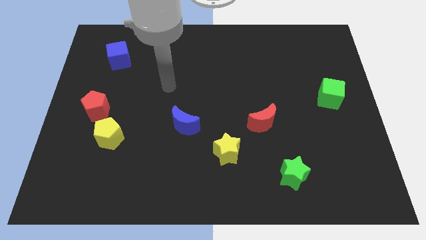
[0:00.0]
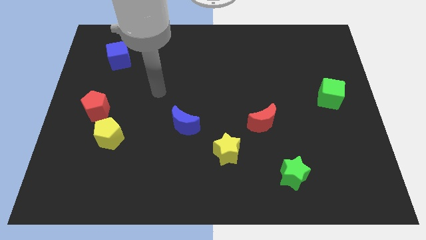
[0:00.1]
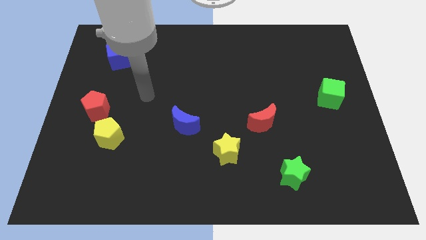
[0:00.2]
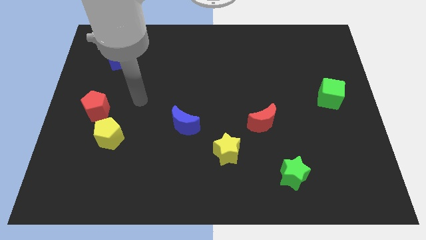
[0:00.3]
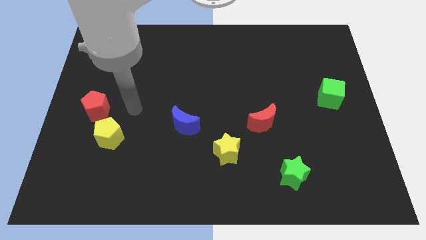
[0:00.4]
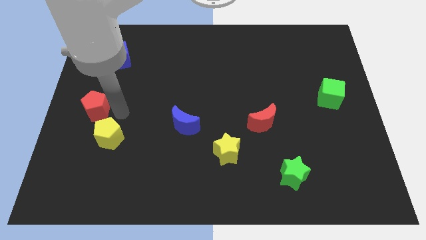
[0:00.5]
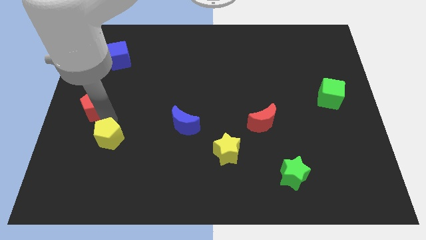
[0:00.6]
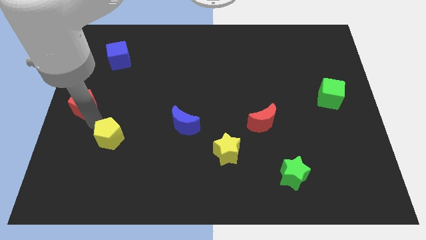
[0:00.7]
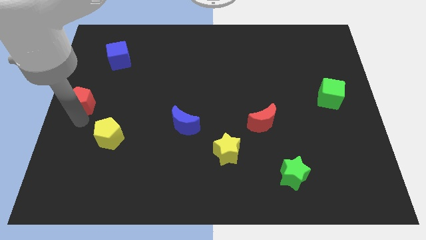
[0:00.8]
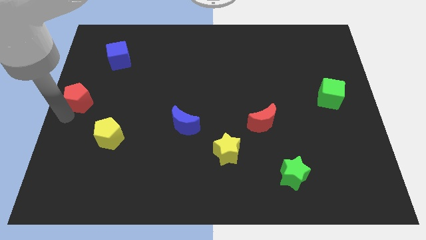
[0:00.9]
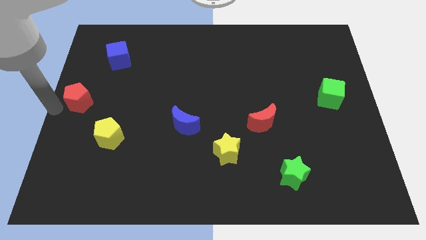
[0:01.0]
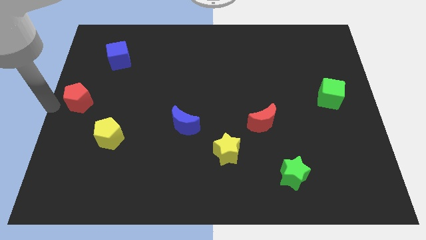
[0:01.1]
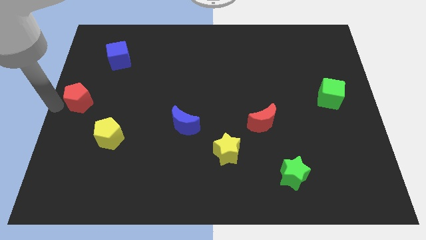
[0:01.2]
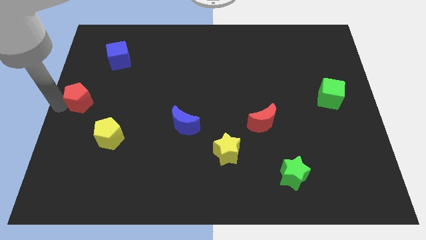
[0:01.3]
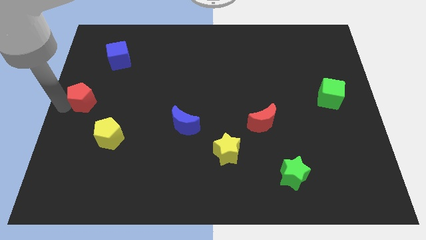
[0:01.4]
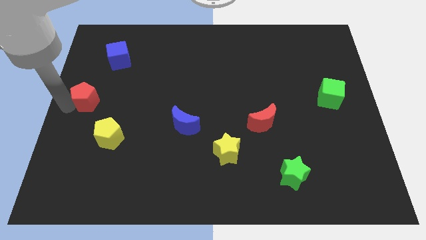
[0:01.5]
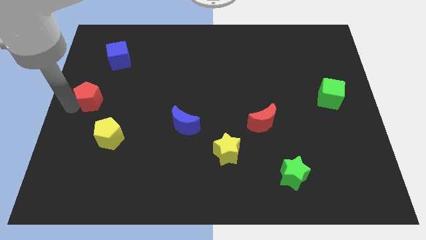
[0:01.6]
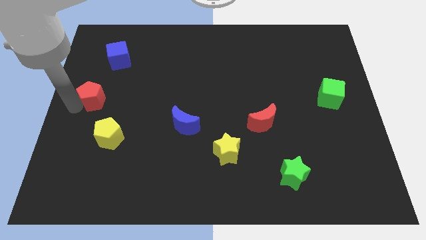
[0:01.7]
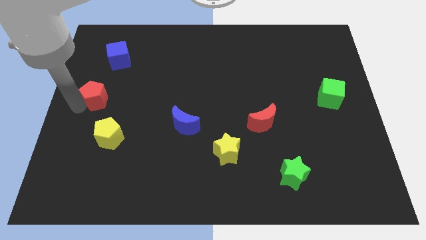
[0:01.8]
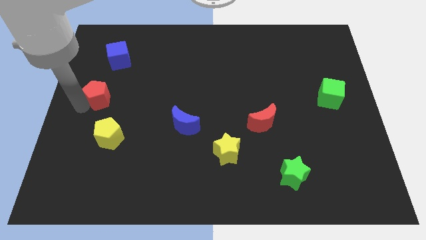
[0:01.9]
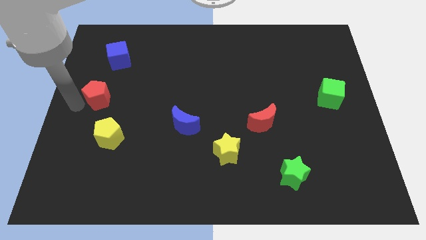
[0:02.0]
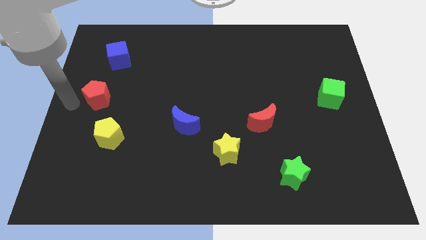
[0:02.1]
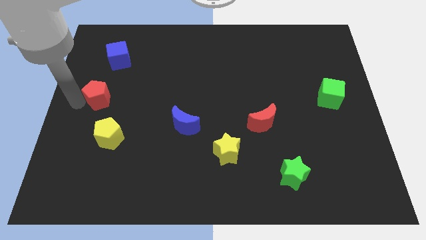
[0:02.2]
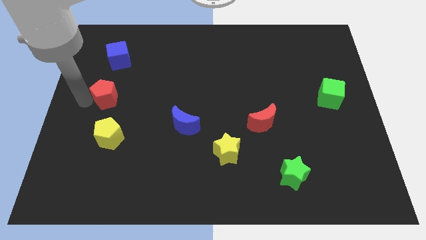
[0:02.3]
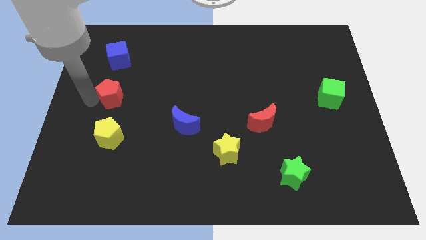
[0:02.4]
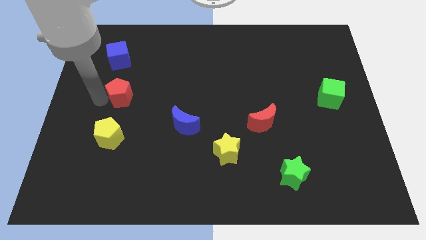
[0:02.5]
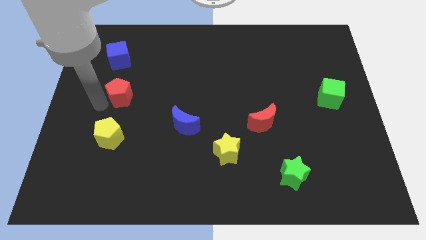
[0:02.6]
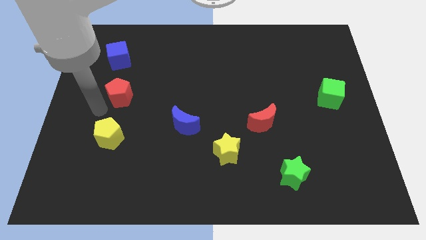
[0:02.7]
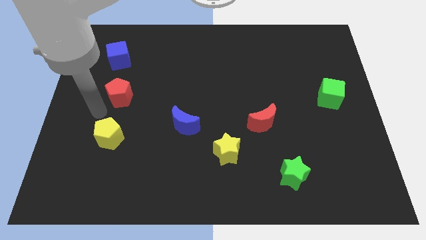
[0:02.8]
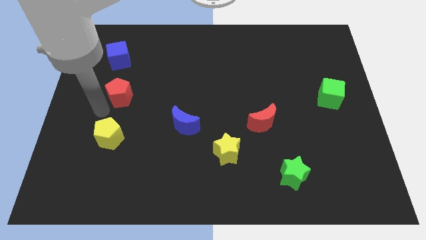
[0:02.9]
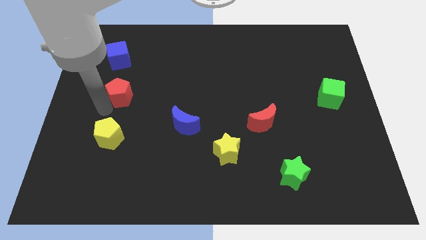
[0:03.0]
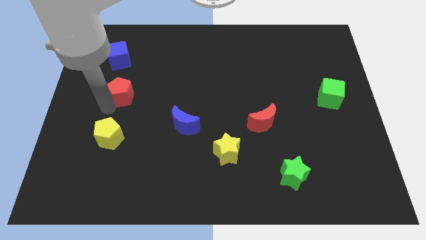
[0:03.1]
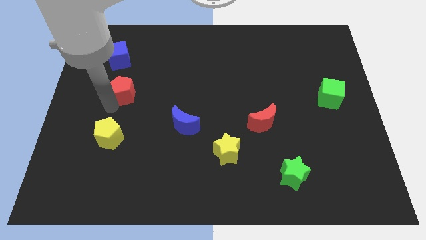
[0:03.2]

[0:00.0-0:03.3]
move the red pentagon a little bit up and right

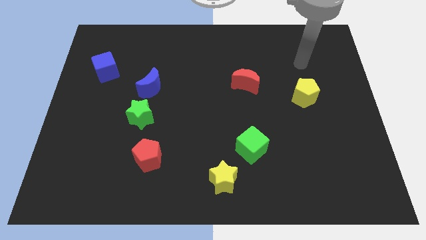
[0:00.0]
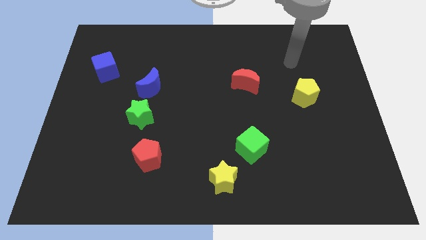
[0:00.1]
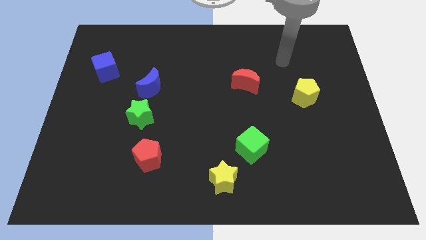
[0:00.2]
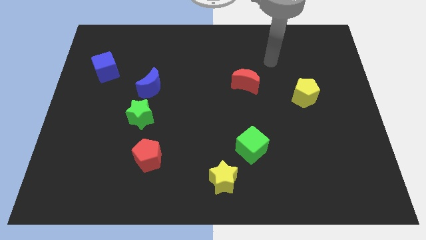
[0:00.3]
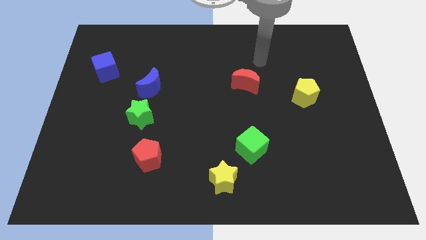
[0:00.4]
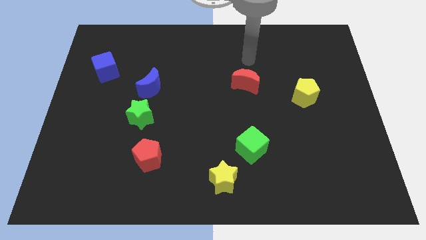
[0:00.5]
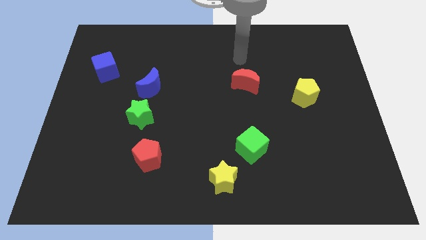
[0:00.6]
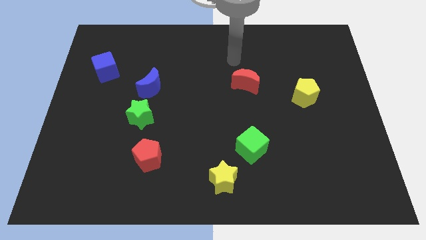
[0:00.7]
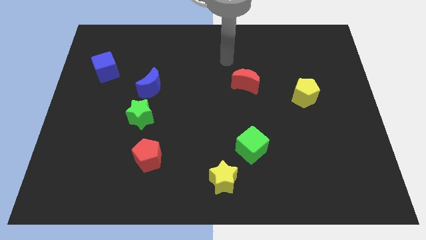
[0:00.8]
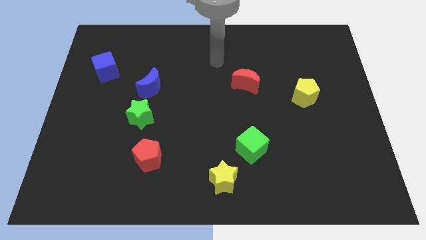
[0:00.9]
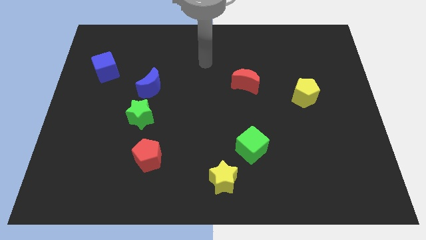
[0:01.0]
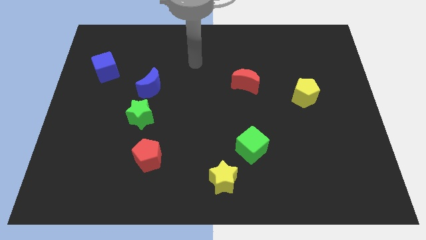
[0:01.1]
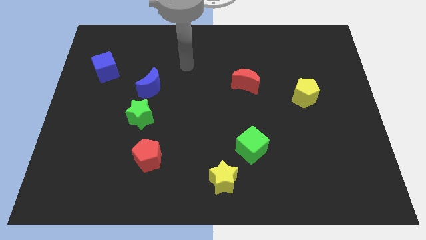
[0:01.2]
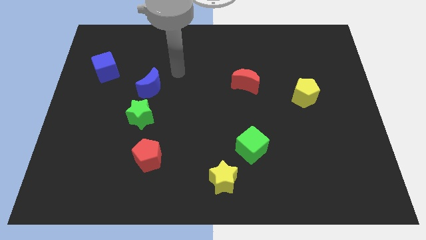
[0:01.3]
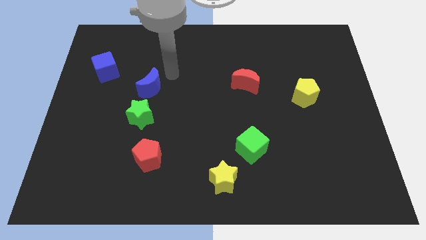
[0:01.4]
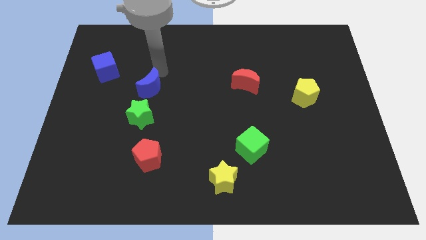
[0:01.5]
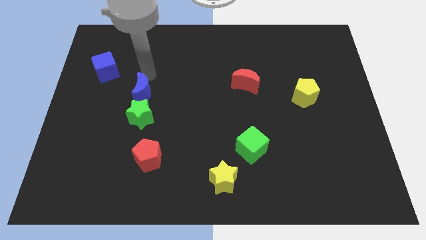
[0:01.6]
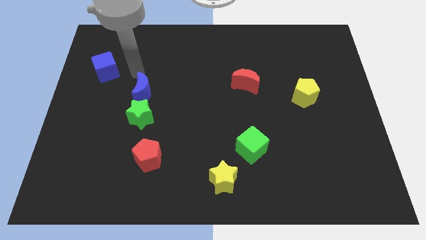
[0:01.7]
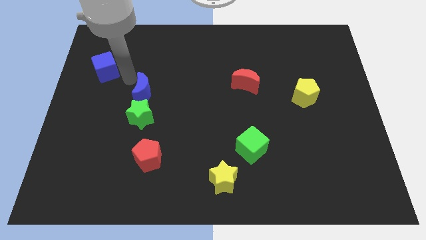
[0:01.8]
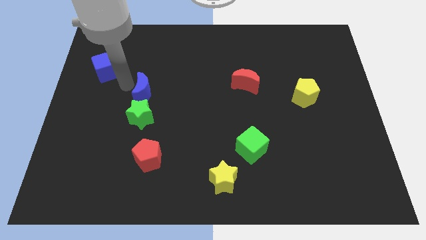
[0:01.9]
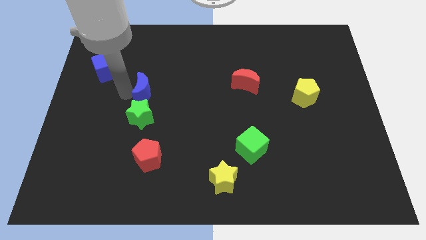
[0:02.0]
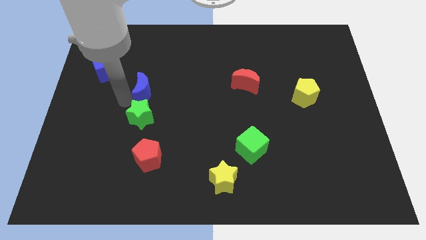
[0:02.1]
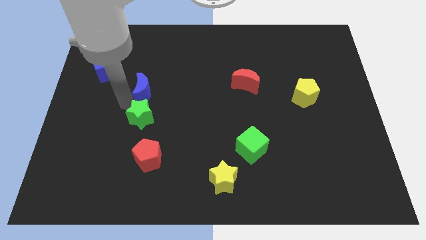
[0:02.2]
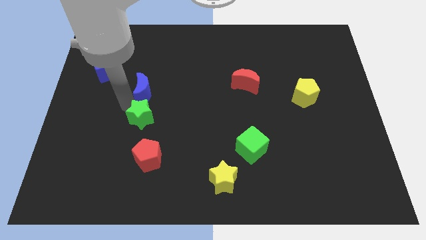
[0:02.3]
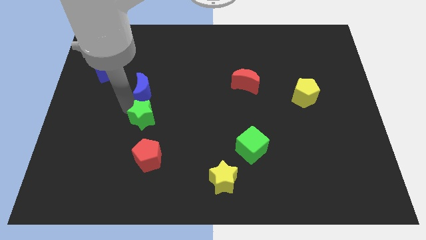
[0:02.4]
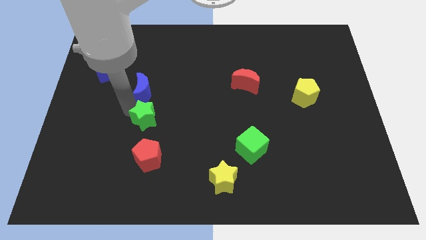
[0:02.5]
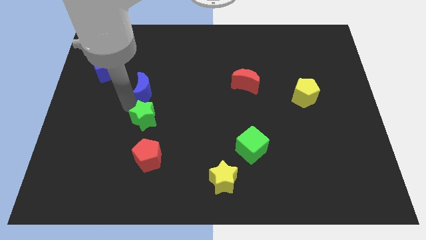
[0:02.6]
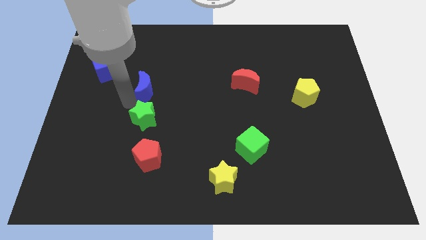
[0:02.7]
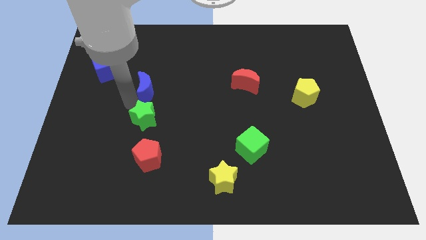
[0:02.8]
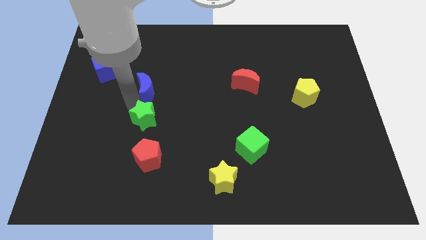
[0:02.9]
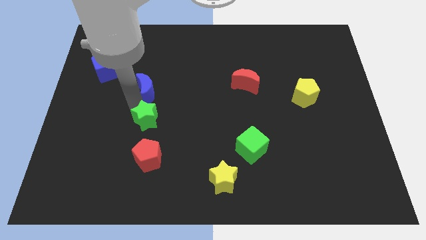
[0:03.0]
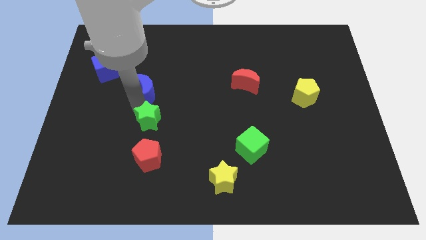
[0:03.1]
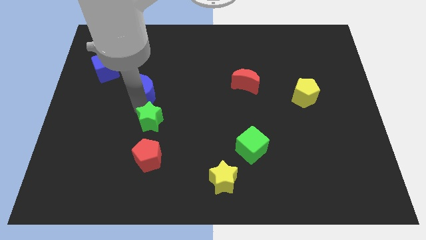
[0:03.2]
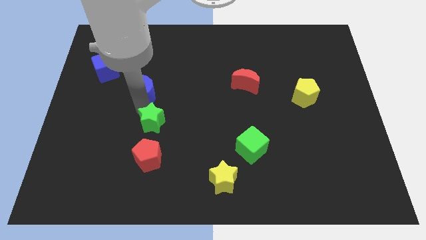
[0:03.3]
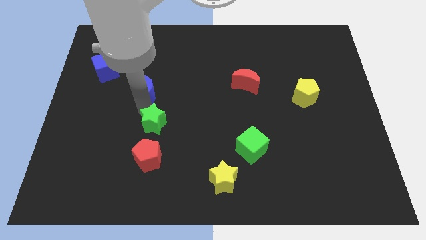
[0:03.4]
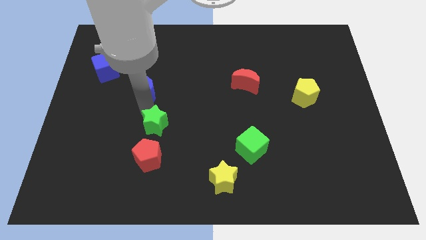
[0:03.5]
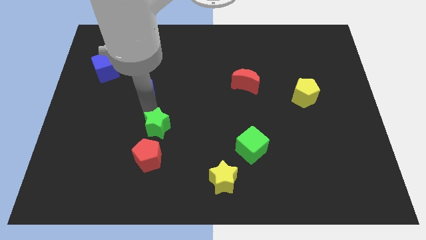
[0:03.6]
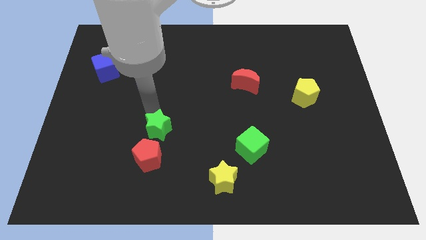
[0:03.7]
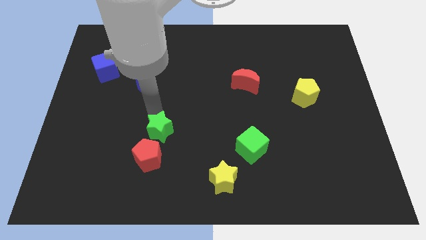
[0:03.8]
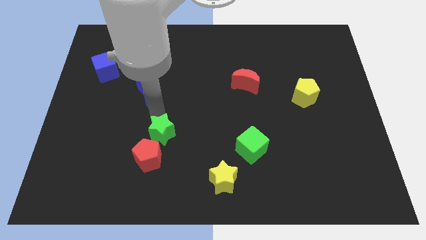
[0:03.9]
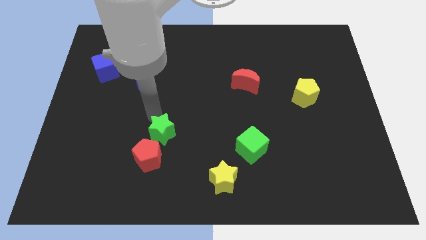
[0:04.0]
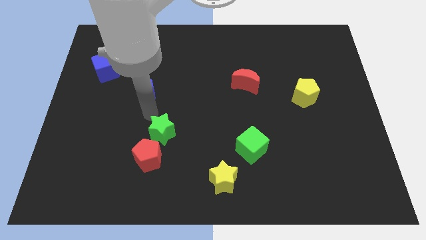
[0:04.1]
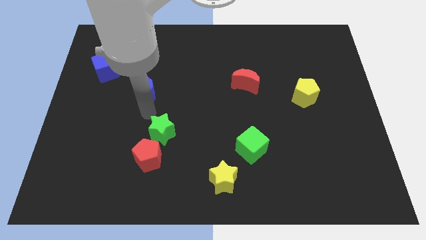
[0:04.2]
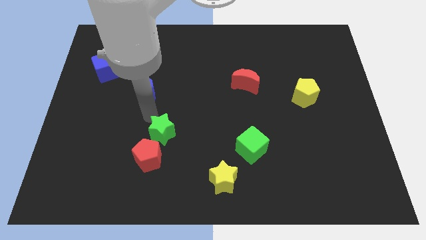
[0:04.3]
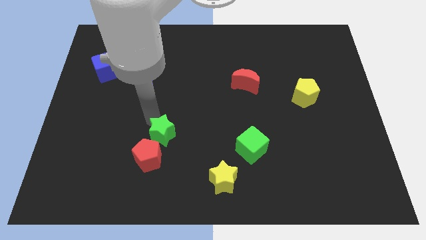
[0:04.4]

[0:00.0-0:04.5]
slide the green star diagonally down and to the right a bit

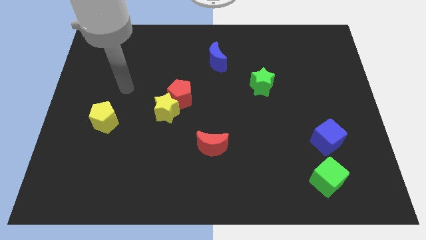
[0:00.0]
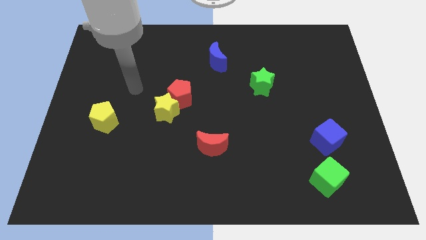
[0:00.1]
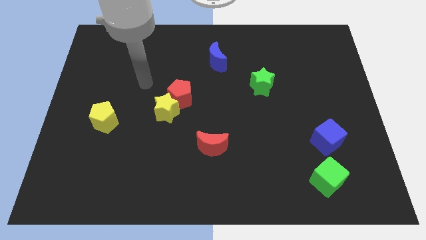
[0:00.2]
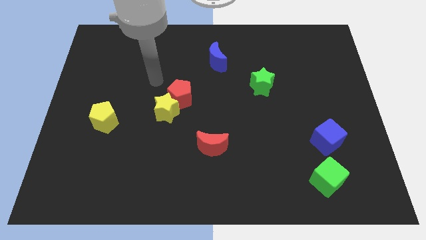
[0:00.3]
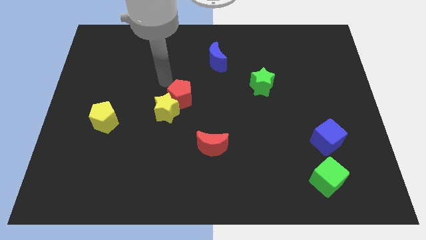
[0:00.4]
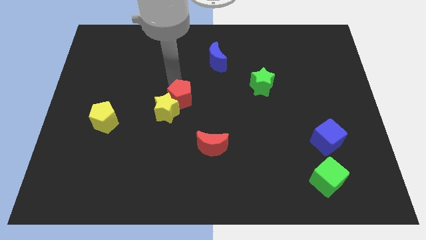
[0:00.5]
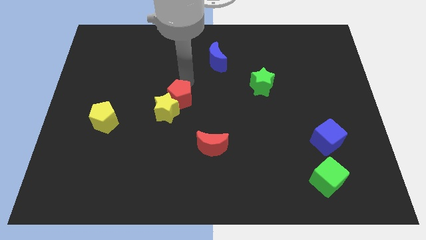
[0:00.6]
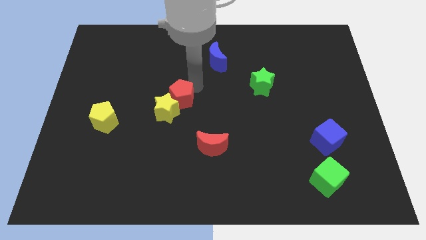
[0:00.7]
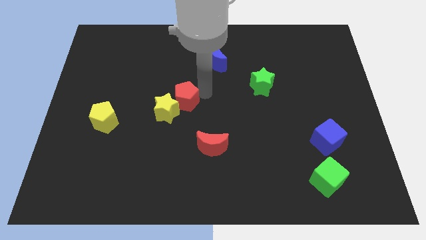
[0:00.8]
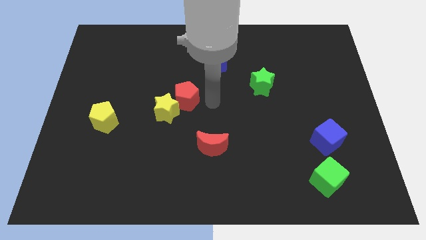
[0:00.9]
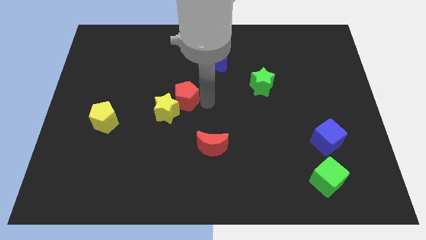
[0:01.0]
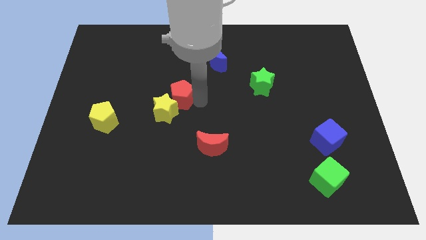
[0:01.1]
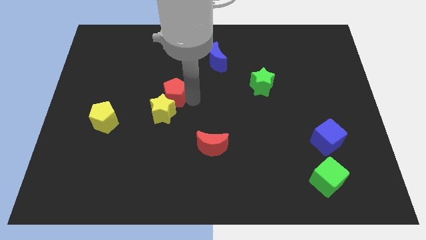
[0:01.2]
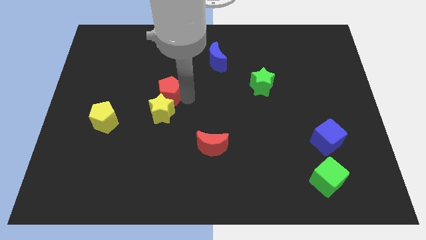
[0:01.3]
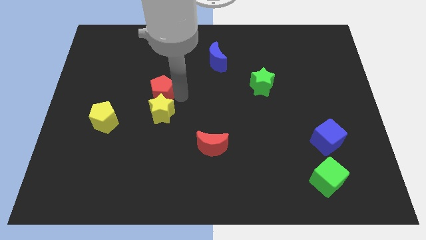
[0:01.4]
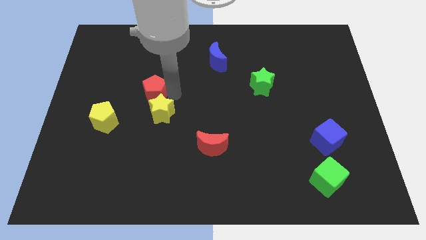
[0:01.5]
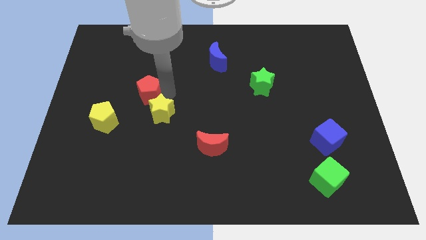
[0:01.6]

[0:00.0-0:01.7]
slightly push the red pentagon to the left
